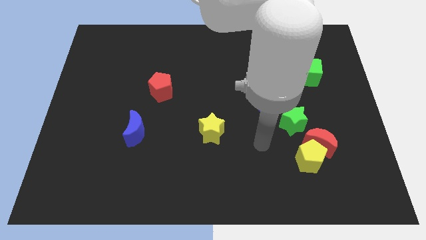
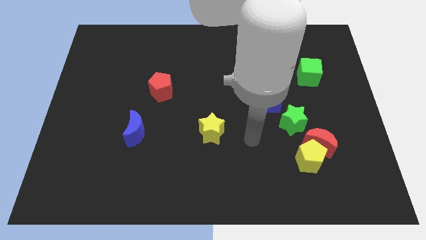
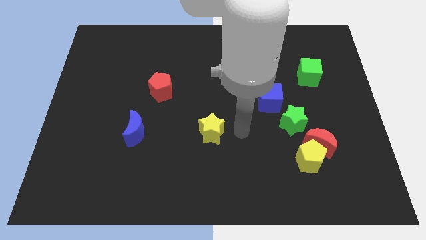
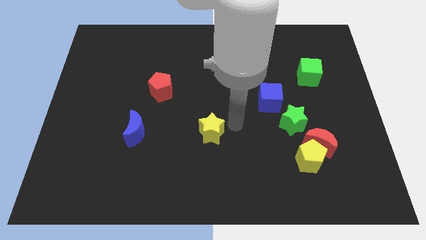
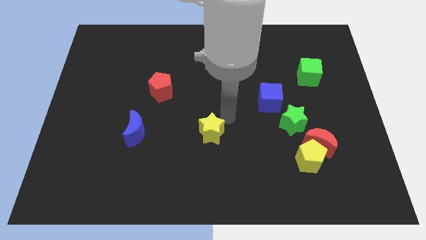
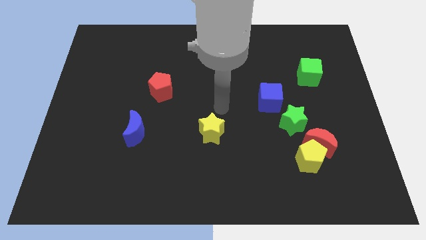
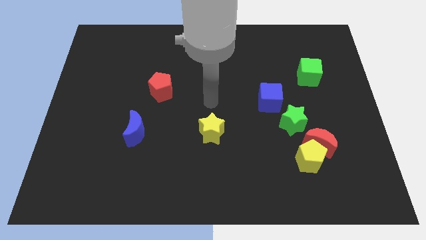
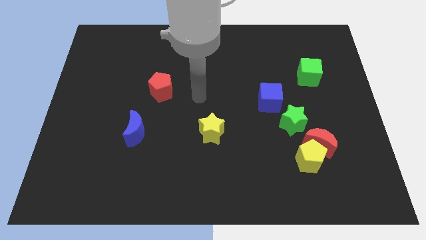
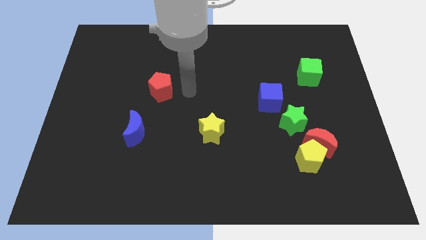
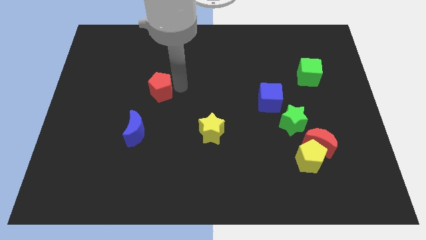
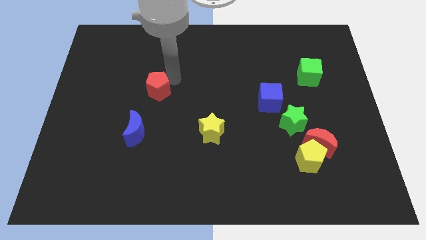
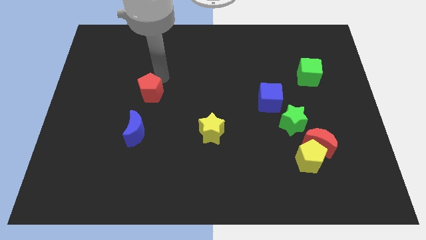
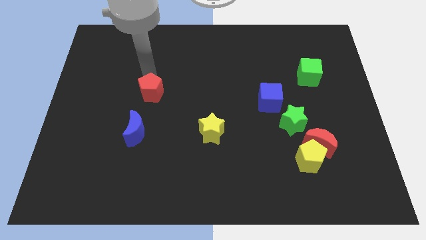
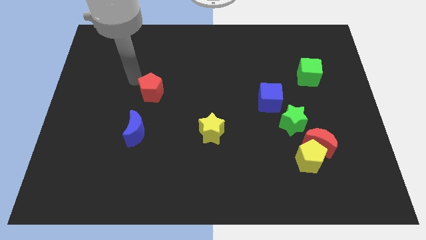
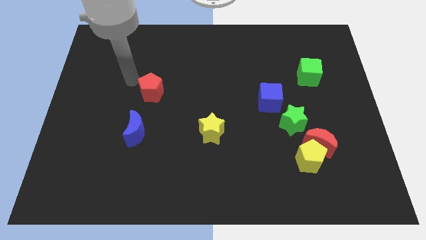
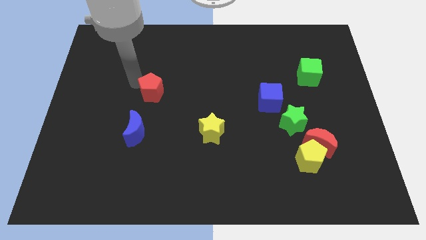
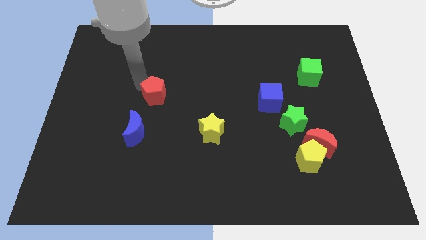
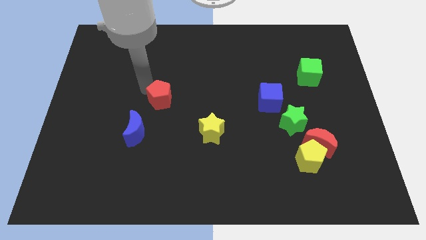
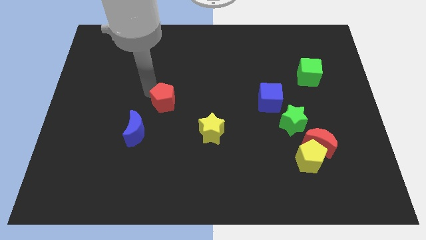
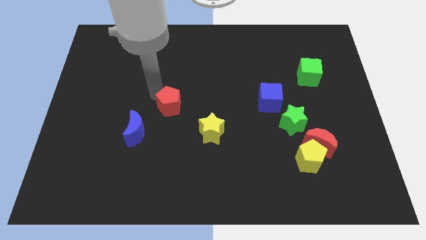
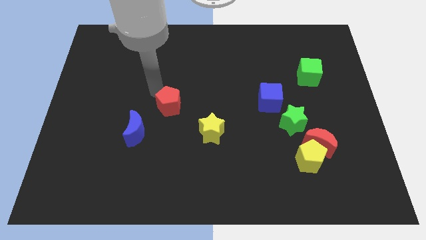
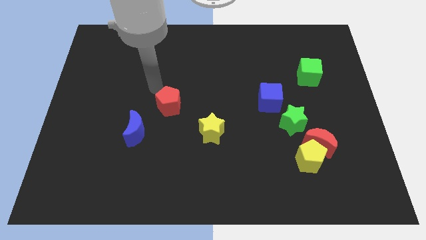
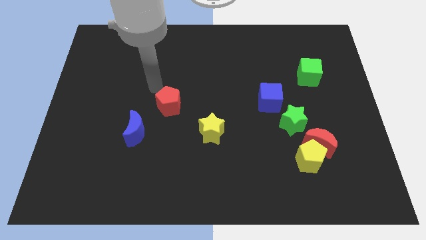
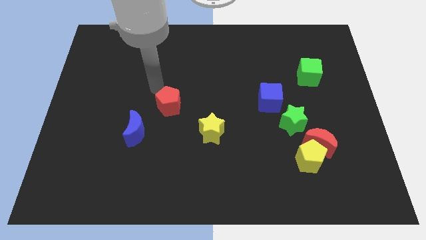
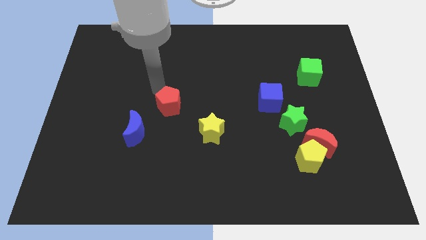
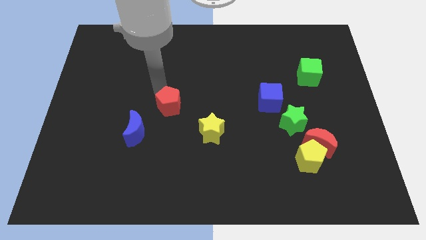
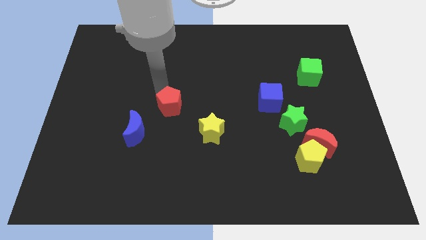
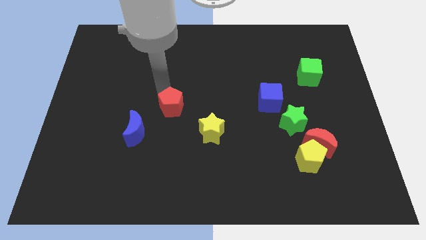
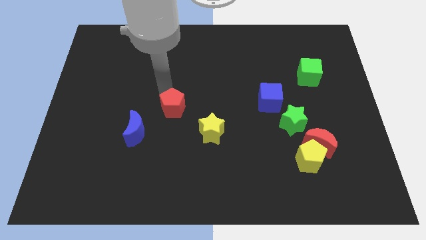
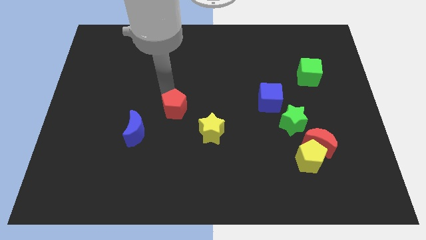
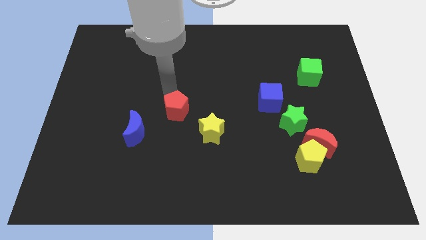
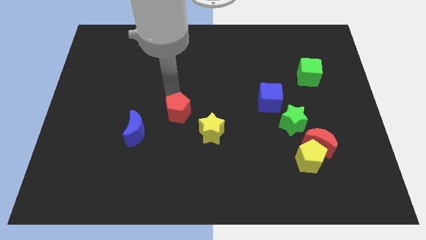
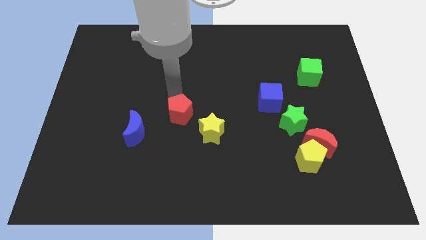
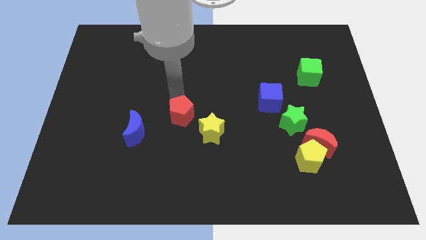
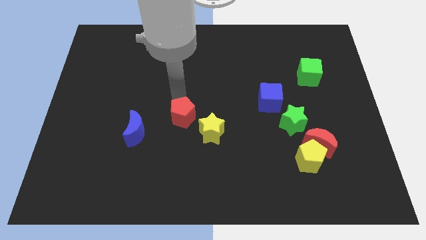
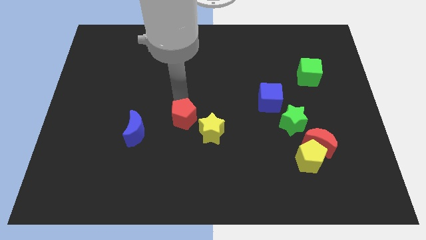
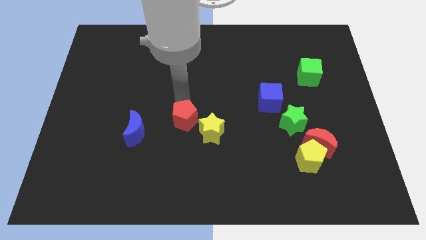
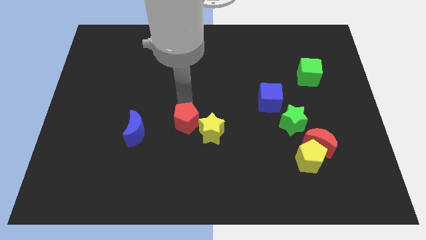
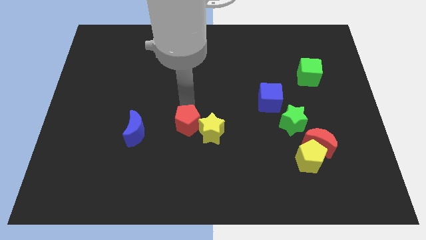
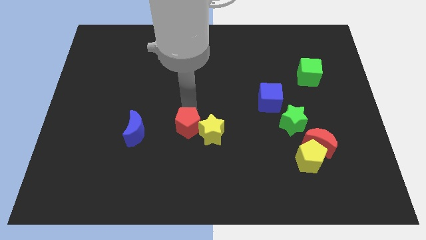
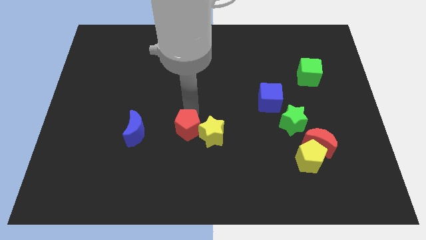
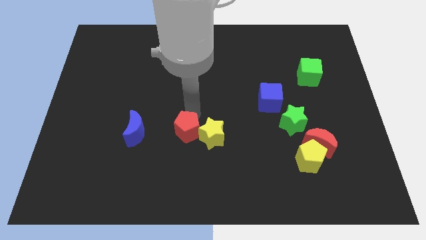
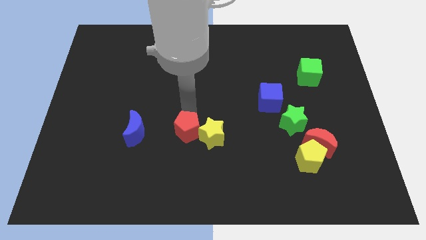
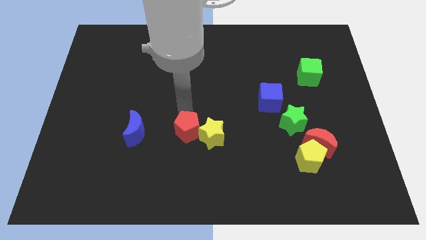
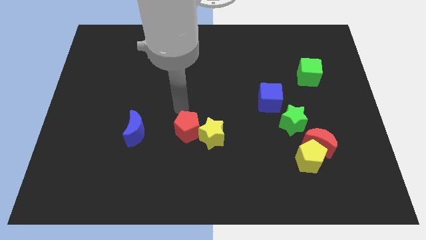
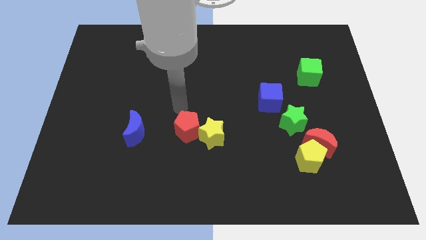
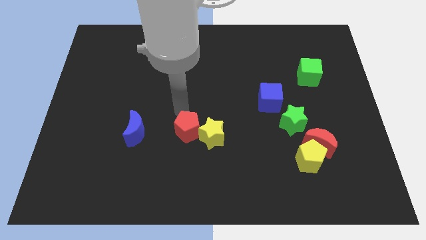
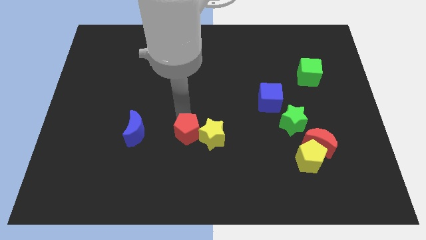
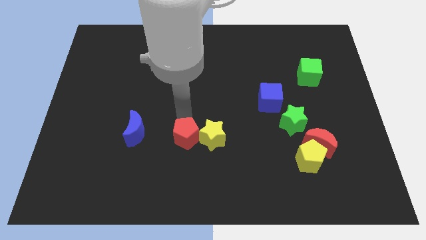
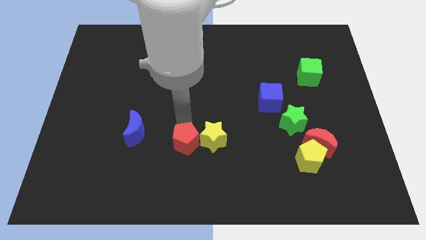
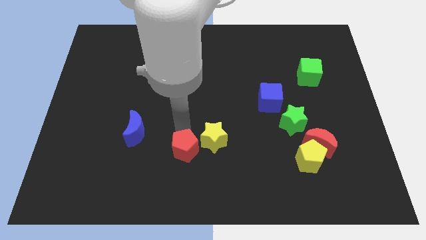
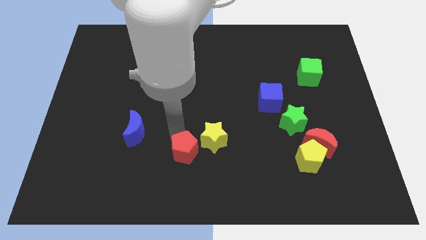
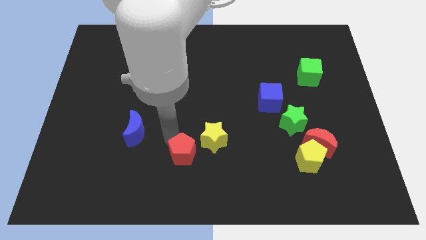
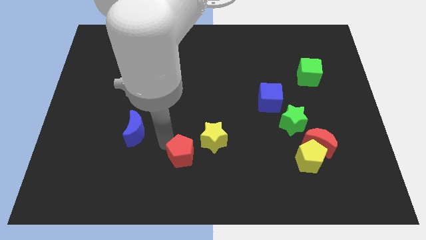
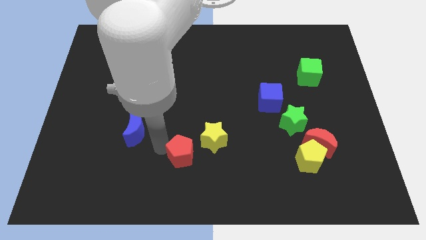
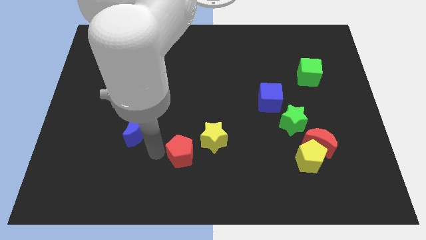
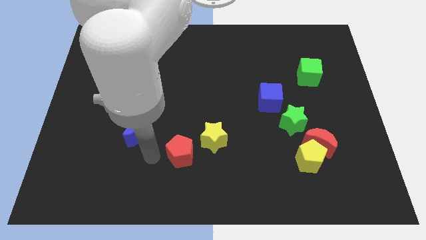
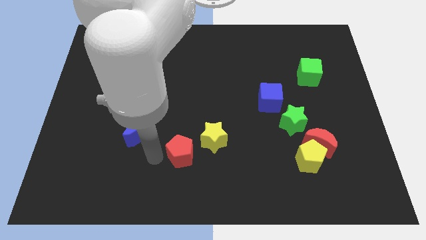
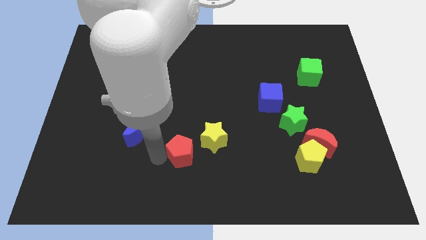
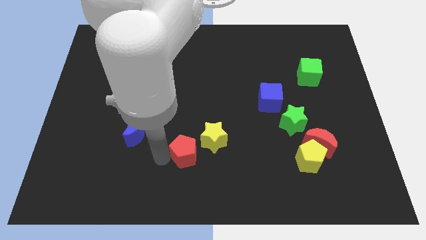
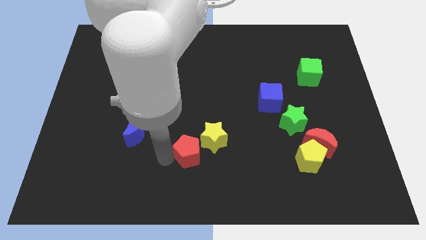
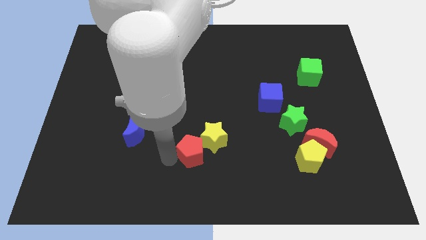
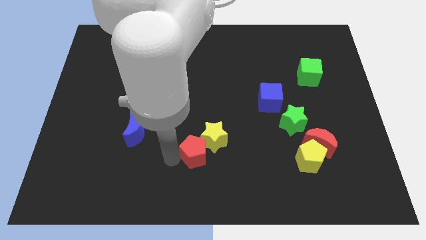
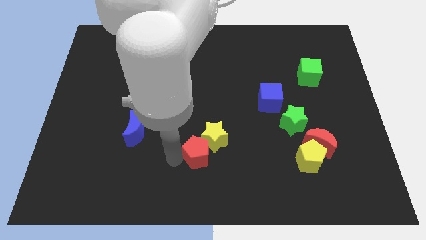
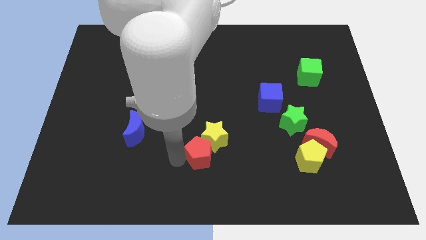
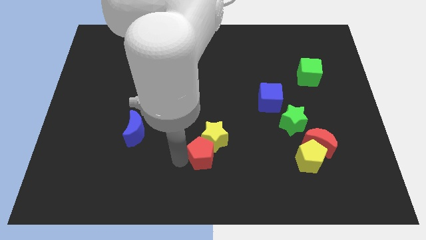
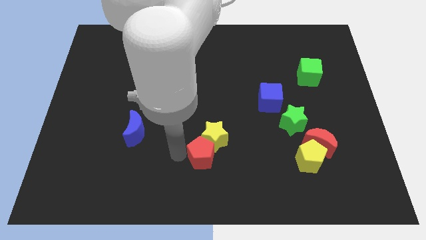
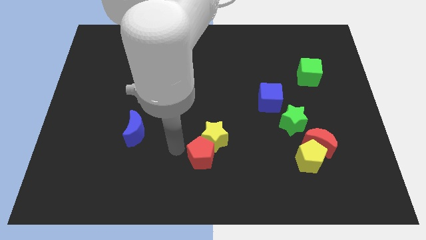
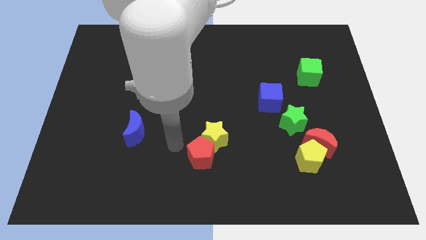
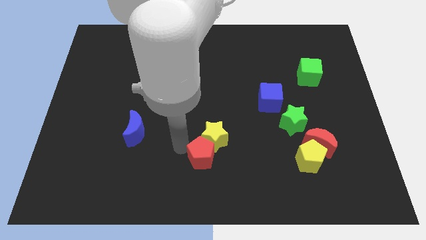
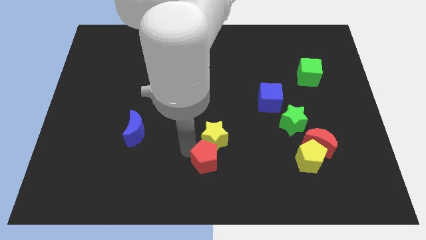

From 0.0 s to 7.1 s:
move the red pentagon downwards and then right

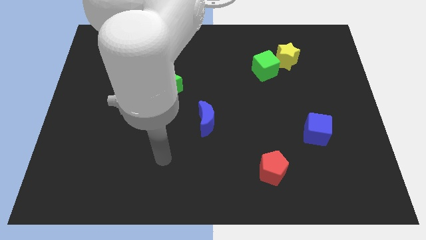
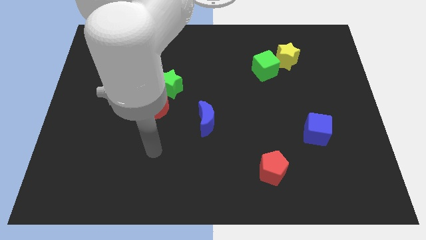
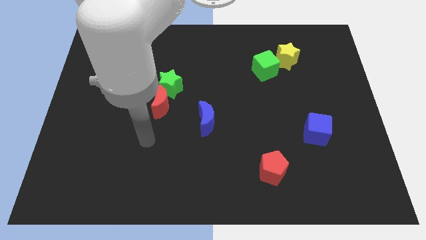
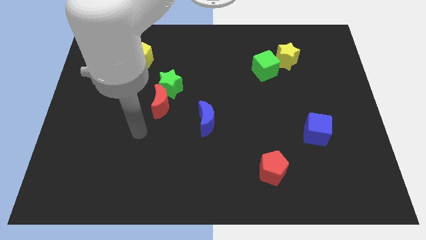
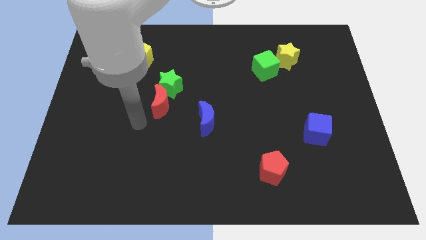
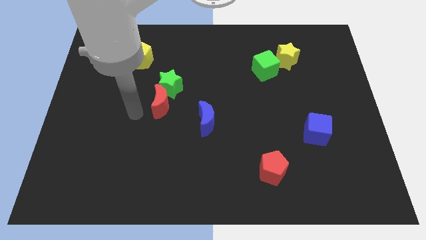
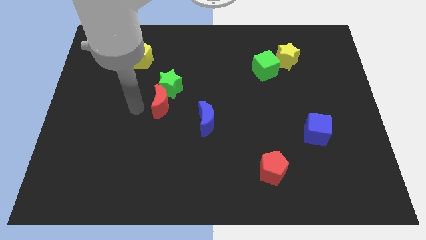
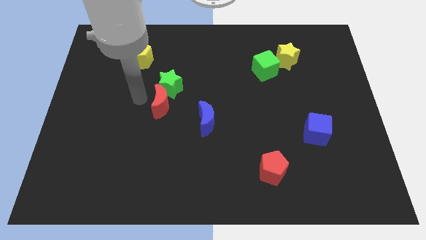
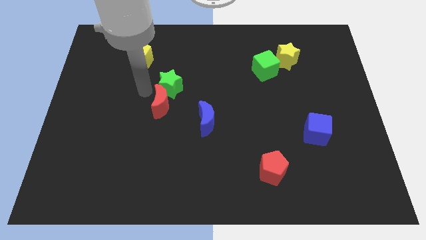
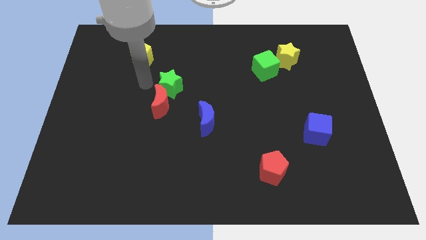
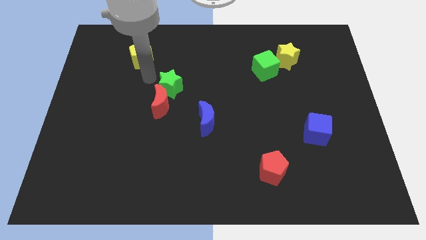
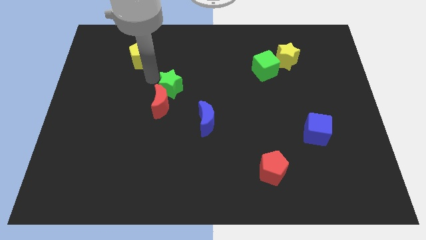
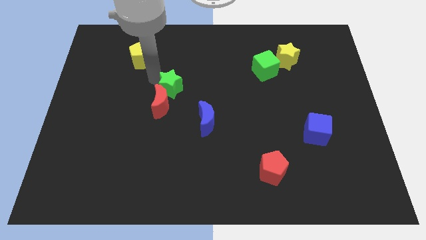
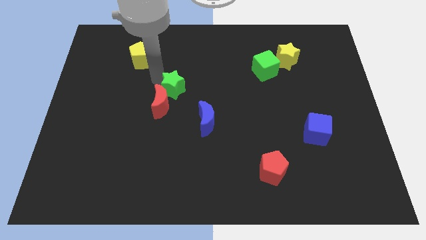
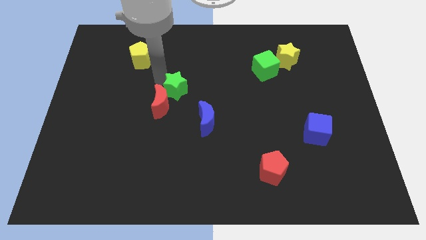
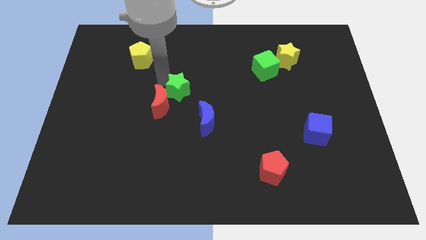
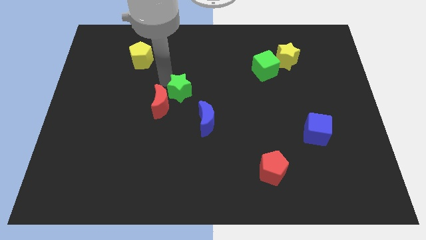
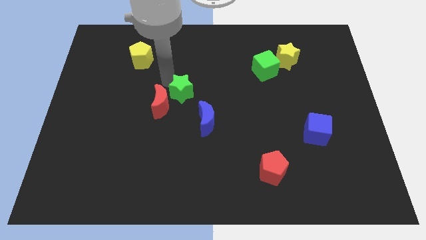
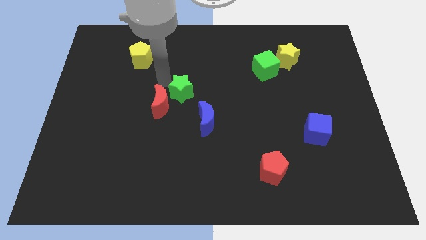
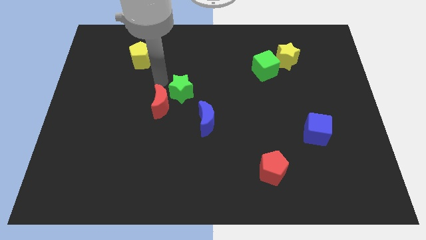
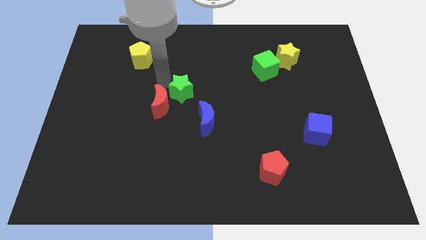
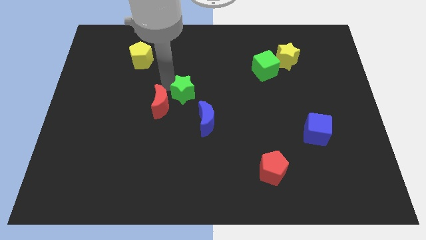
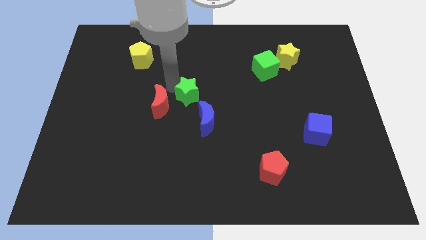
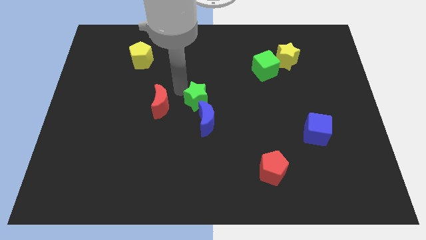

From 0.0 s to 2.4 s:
slide the green star downwards and then to the right a bit
